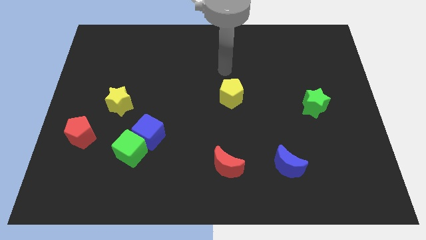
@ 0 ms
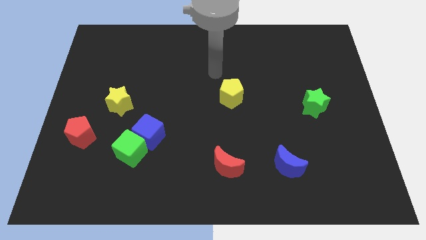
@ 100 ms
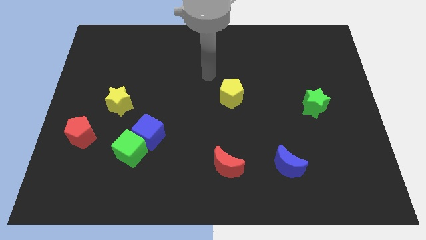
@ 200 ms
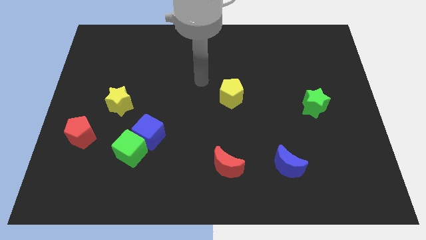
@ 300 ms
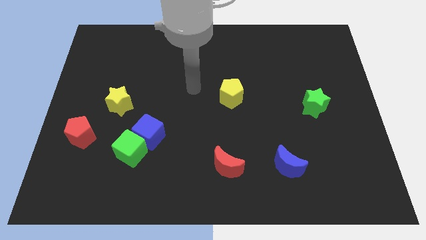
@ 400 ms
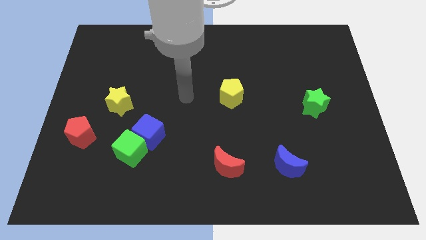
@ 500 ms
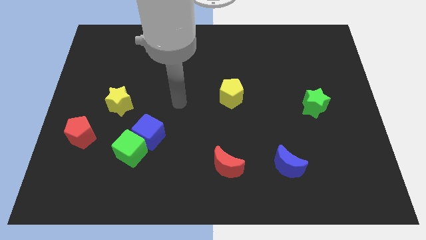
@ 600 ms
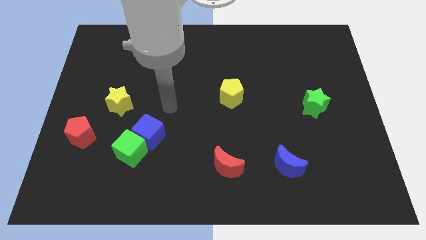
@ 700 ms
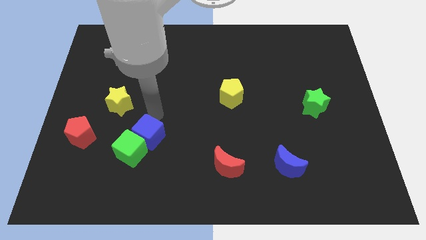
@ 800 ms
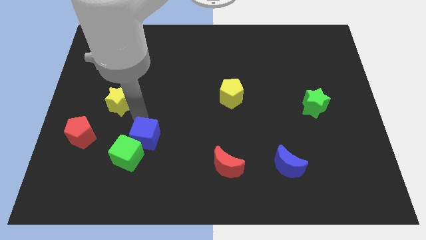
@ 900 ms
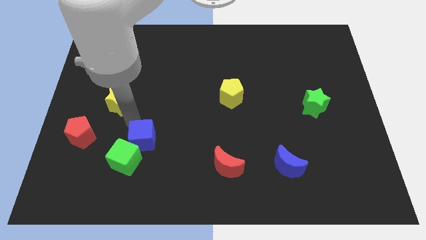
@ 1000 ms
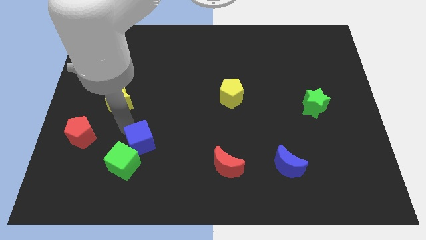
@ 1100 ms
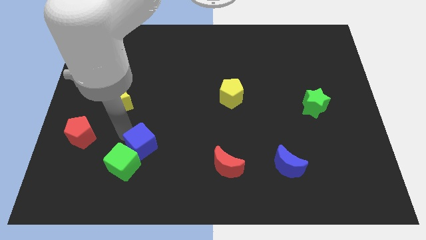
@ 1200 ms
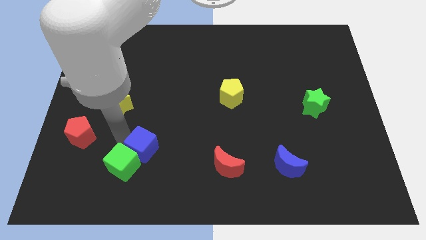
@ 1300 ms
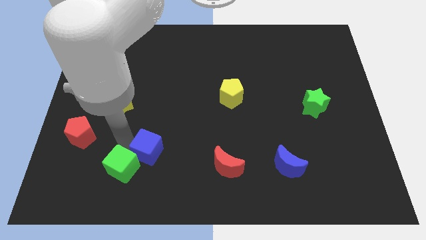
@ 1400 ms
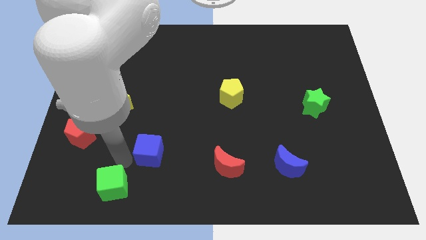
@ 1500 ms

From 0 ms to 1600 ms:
separate the blue cube from the green cube

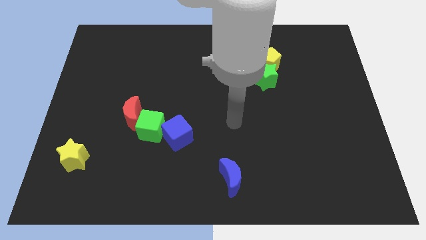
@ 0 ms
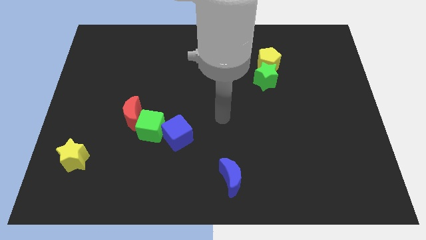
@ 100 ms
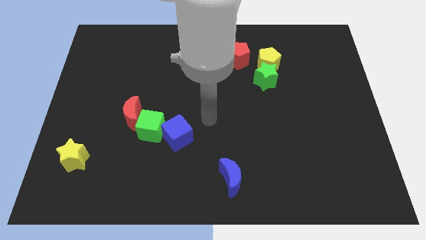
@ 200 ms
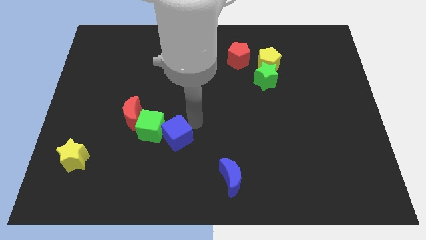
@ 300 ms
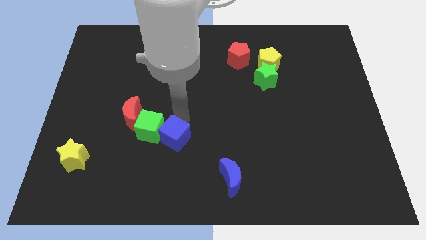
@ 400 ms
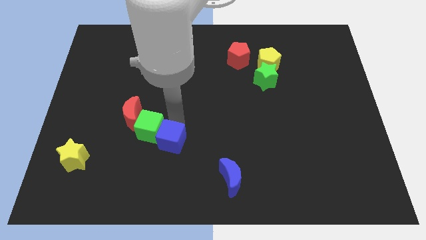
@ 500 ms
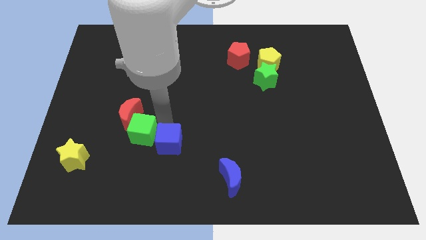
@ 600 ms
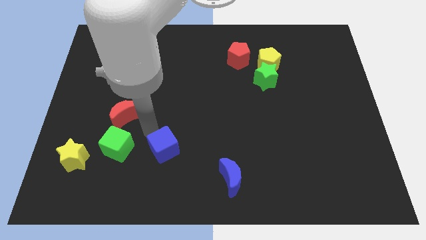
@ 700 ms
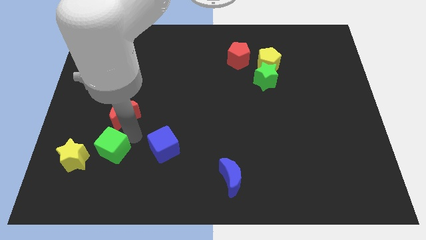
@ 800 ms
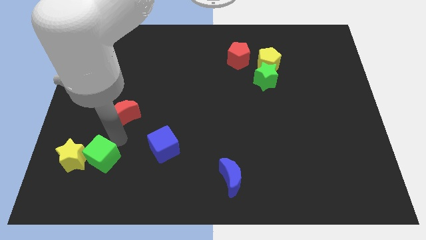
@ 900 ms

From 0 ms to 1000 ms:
pull the red moon apart from the green cube

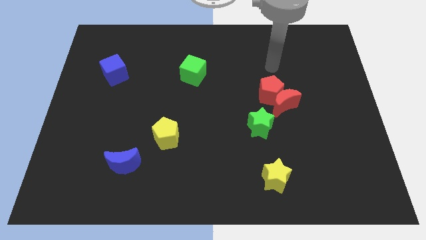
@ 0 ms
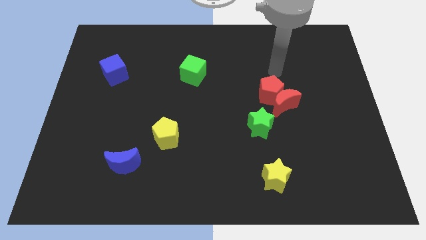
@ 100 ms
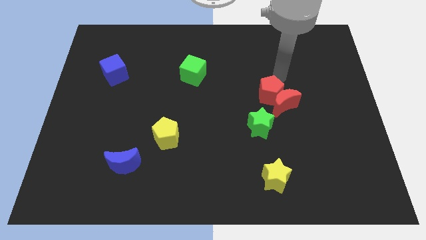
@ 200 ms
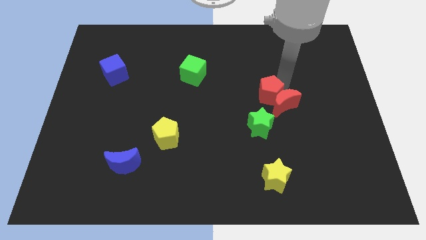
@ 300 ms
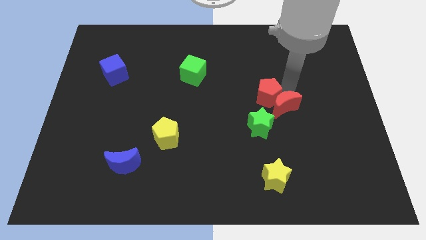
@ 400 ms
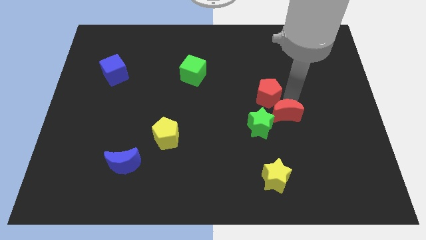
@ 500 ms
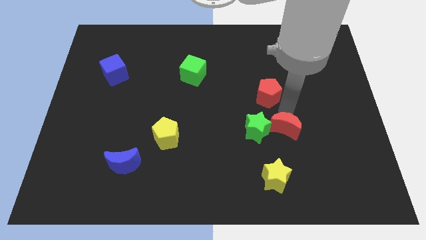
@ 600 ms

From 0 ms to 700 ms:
pull the red pentagon apart from the red moon

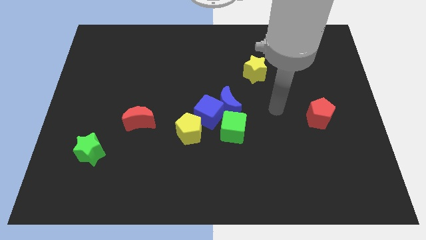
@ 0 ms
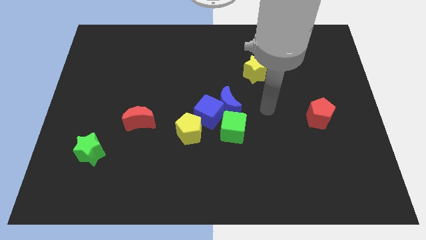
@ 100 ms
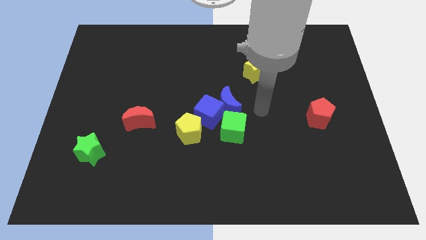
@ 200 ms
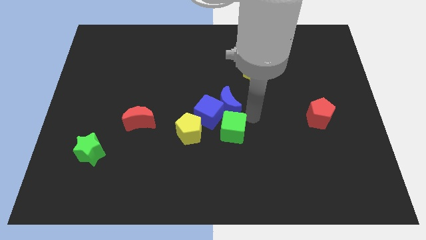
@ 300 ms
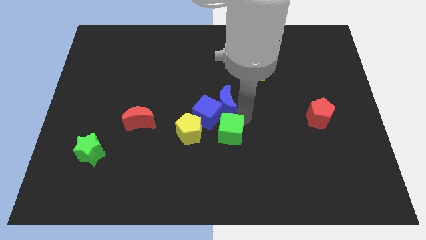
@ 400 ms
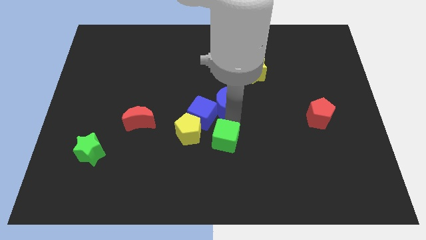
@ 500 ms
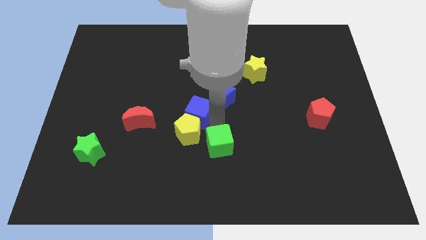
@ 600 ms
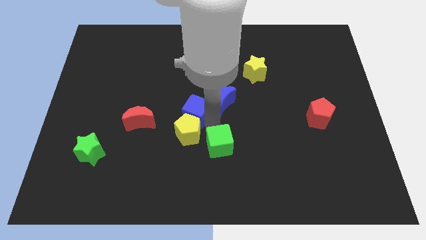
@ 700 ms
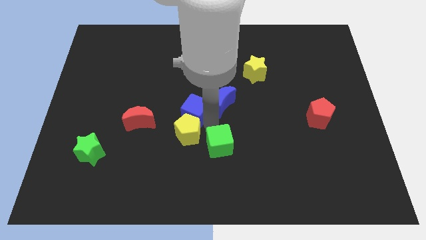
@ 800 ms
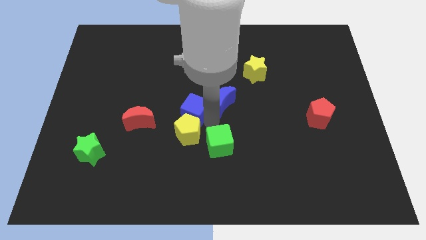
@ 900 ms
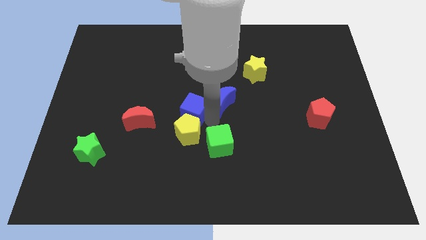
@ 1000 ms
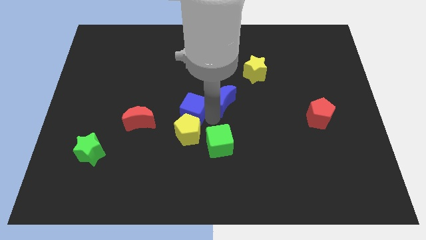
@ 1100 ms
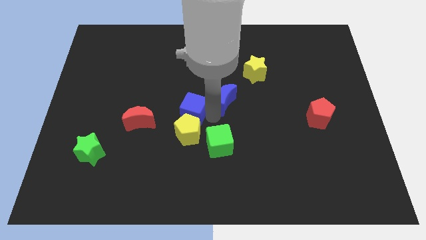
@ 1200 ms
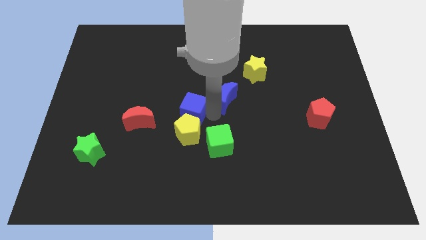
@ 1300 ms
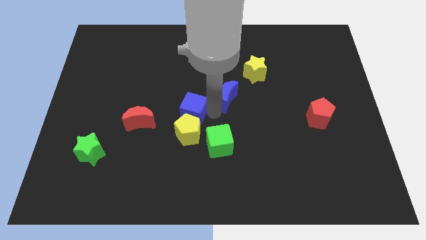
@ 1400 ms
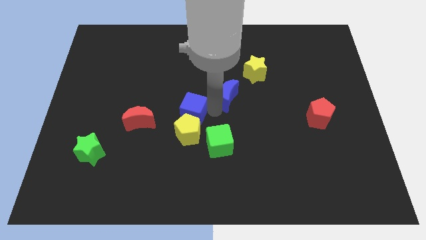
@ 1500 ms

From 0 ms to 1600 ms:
move the blue moon away from the blue cube and green cube

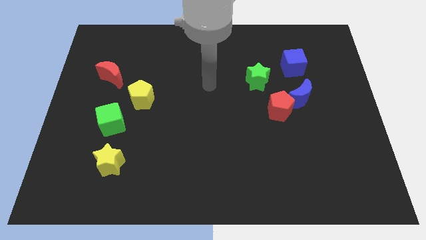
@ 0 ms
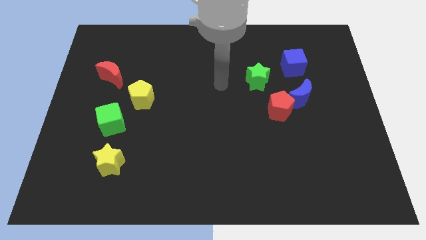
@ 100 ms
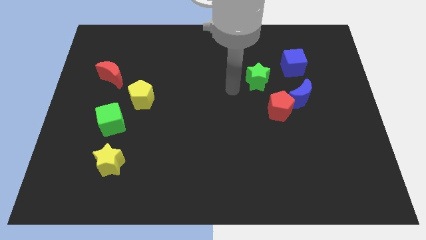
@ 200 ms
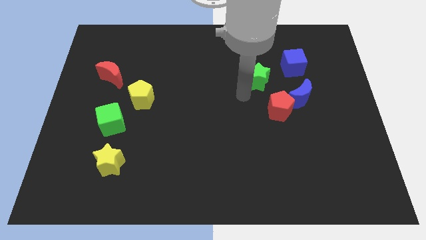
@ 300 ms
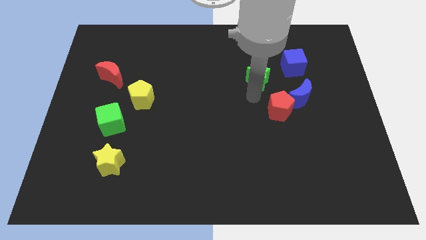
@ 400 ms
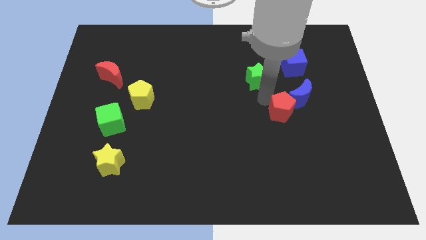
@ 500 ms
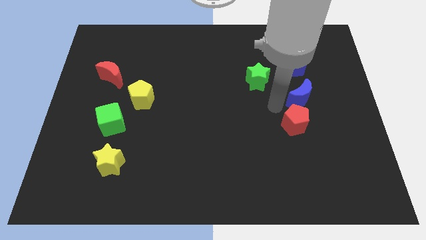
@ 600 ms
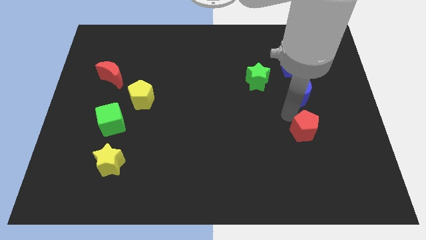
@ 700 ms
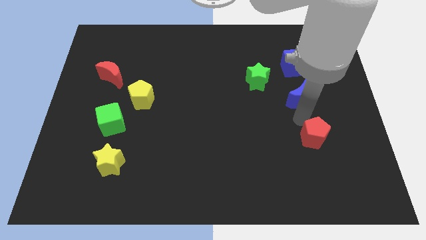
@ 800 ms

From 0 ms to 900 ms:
separate the blue moon from the red pentagon

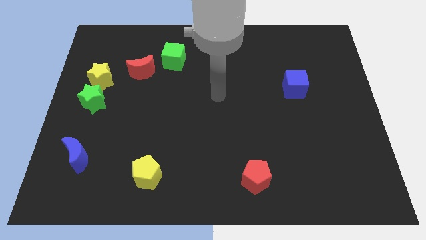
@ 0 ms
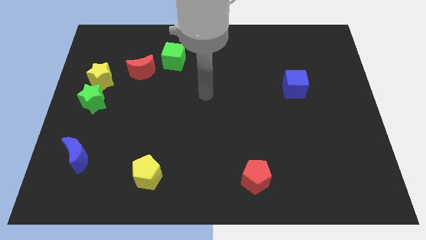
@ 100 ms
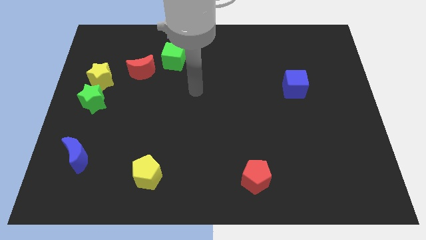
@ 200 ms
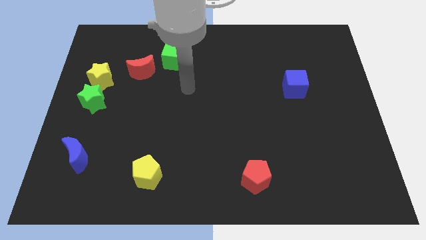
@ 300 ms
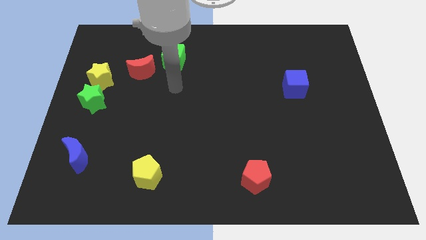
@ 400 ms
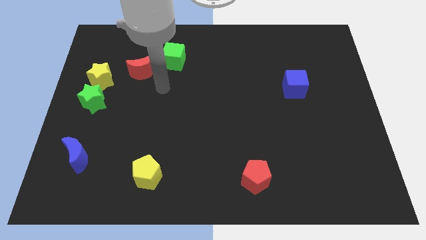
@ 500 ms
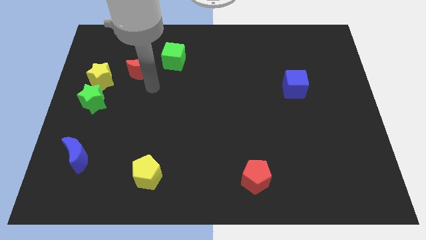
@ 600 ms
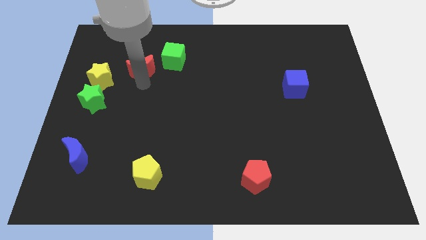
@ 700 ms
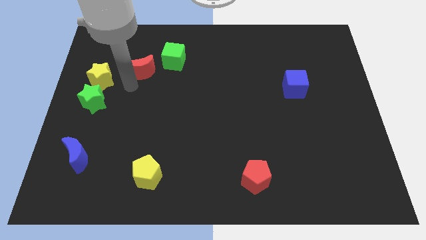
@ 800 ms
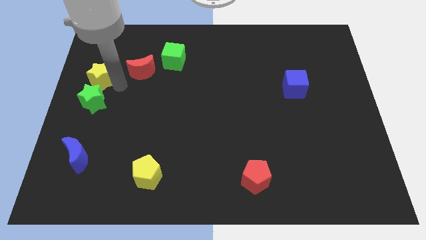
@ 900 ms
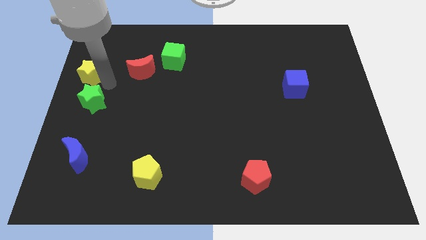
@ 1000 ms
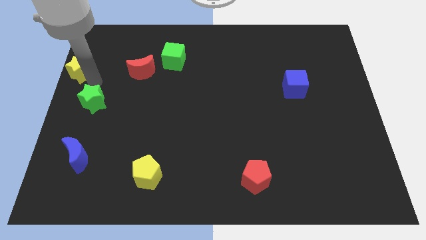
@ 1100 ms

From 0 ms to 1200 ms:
move the green star away from the yellow star

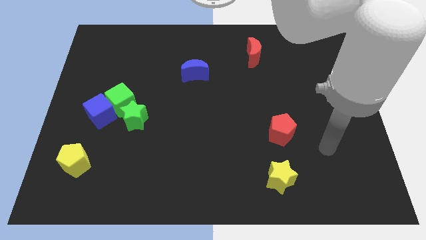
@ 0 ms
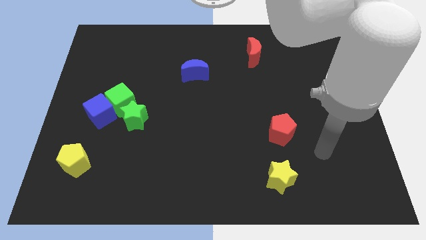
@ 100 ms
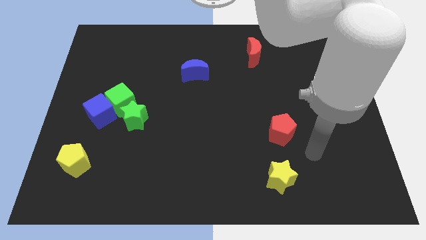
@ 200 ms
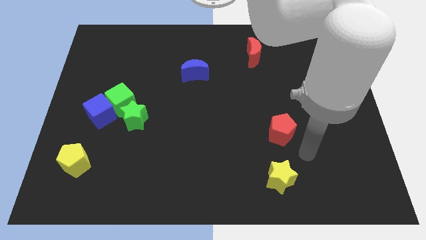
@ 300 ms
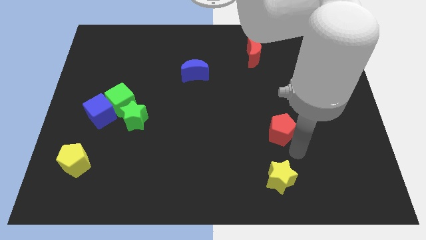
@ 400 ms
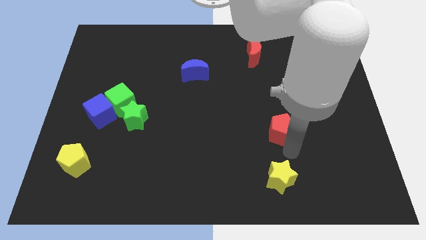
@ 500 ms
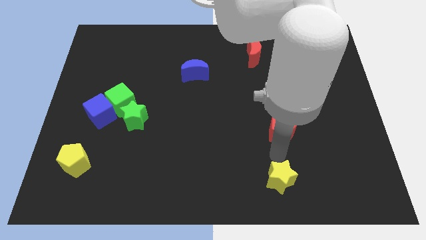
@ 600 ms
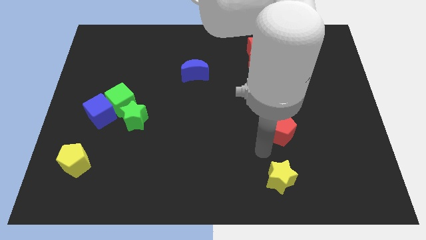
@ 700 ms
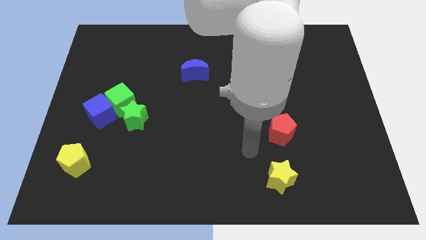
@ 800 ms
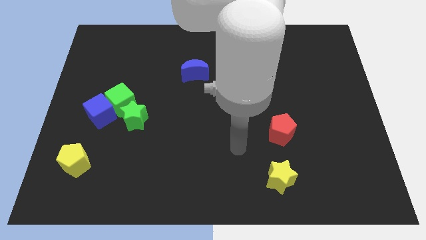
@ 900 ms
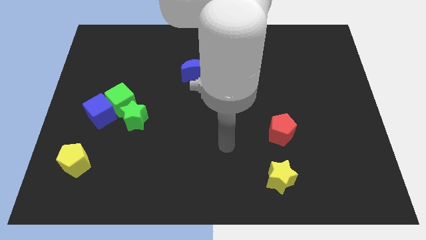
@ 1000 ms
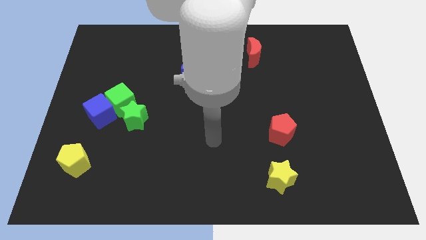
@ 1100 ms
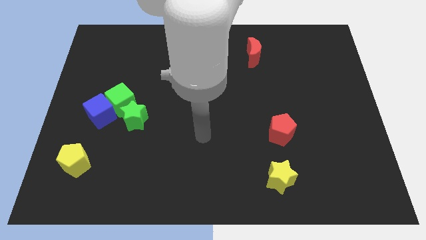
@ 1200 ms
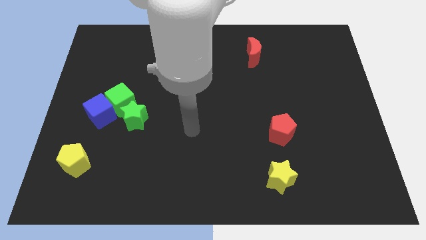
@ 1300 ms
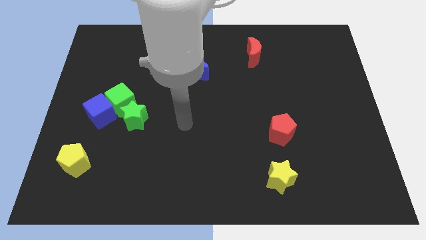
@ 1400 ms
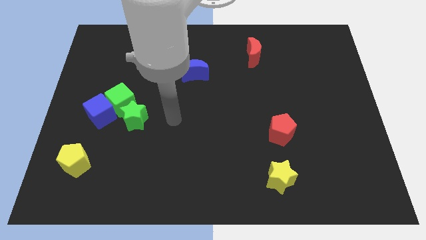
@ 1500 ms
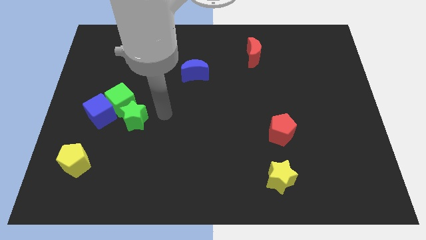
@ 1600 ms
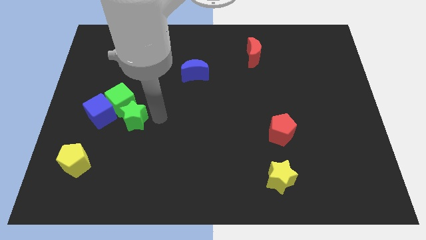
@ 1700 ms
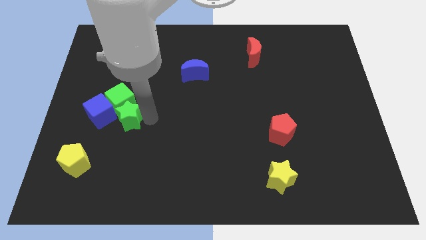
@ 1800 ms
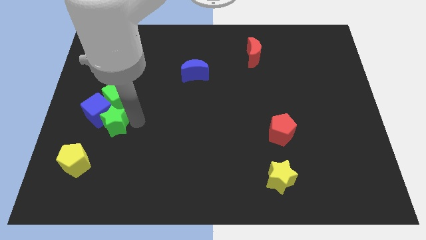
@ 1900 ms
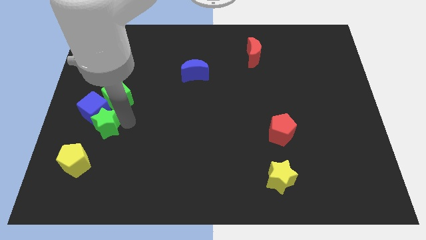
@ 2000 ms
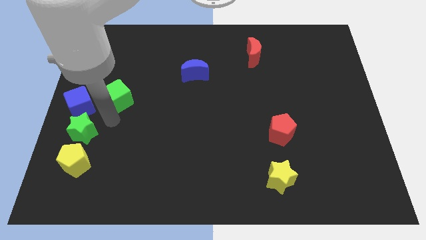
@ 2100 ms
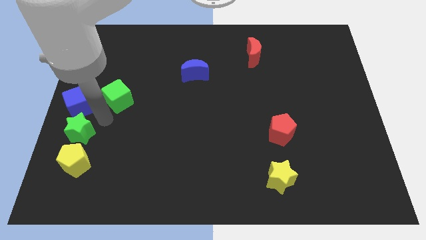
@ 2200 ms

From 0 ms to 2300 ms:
move the green cube away from the blue cube and green star

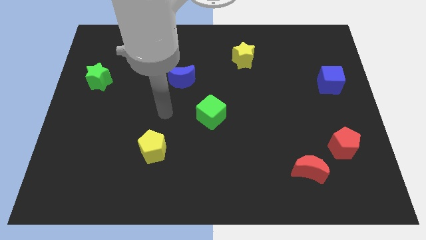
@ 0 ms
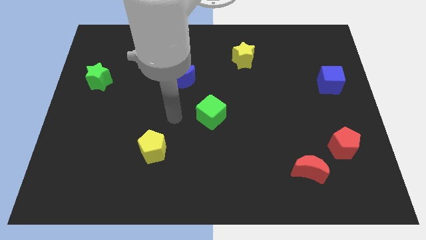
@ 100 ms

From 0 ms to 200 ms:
move the red moon away from the red pentagon
